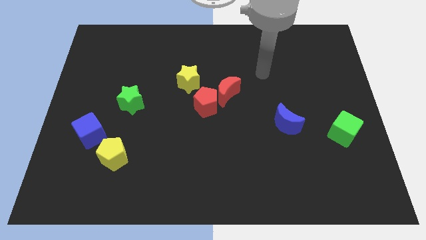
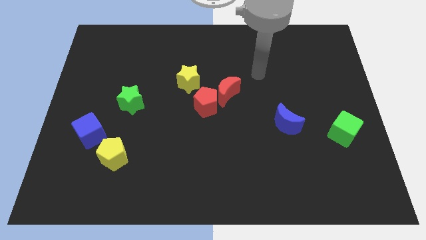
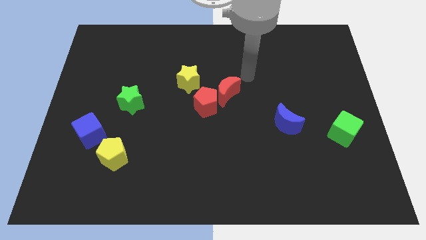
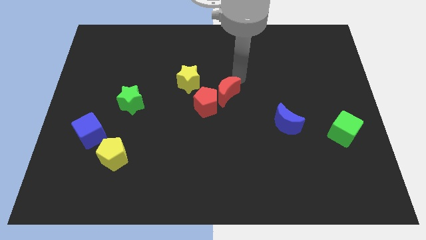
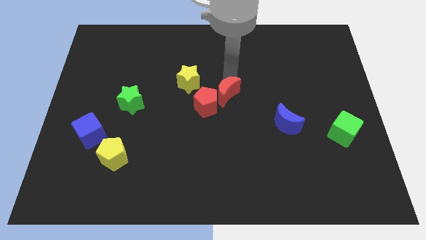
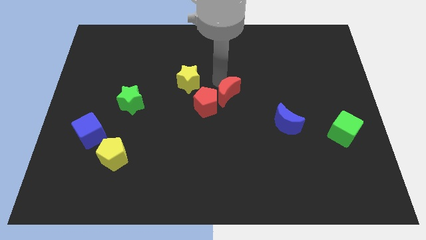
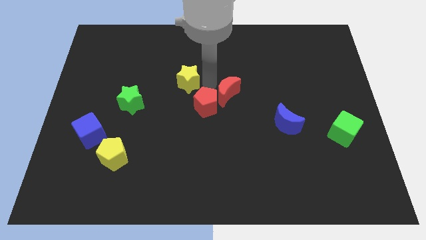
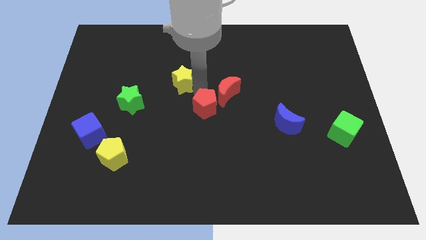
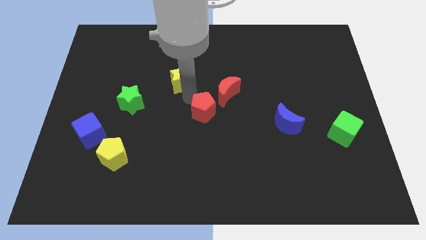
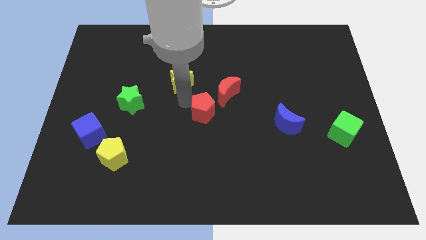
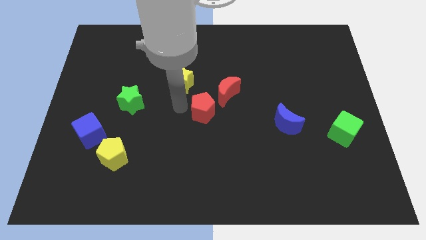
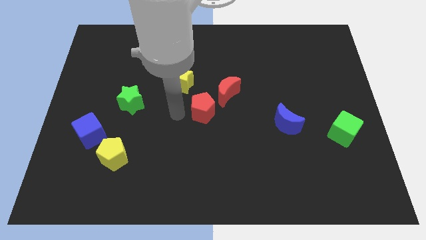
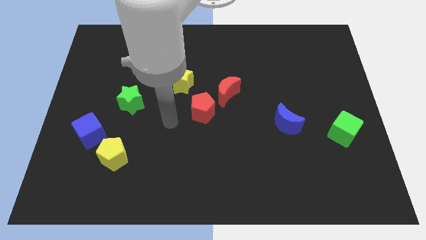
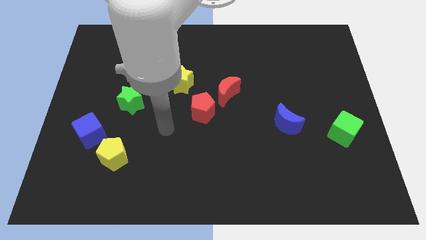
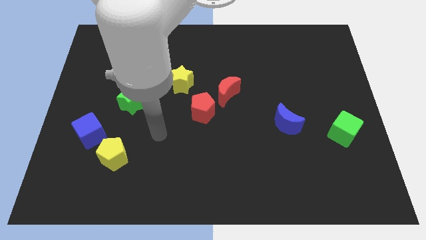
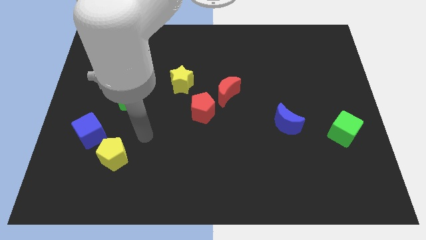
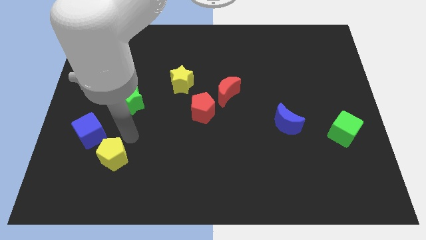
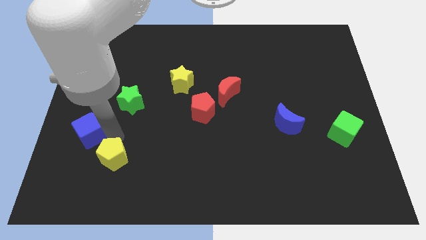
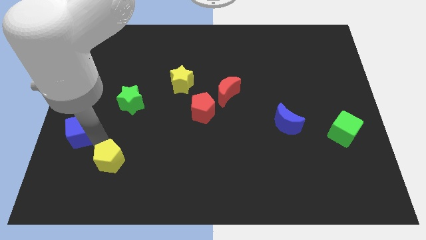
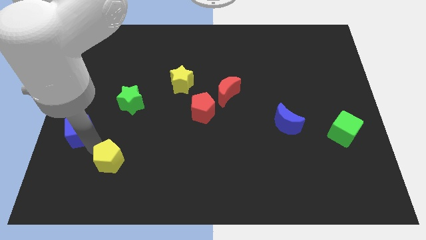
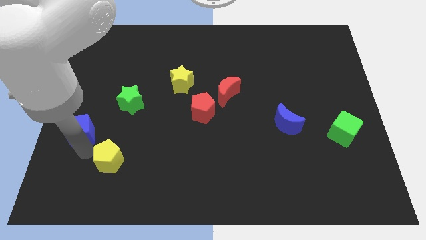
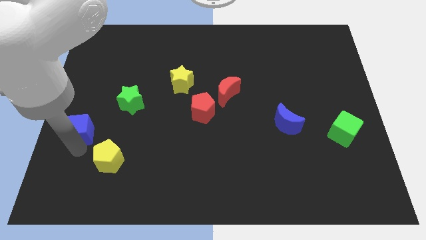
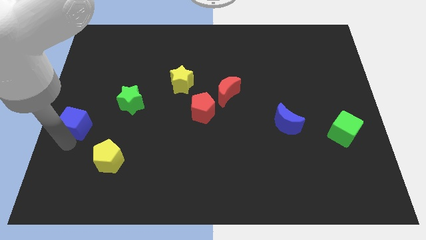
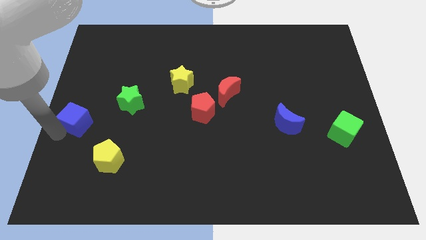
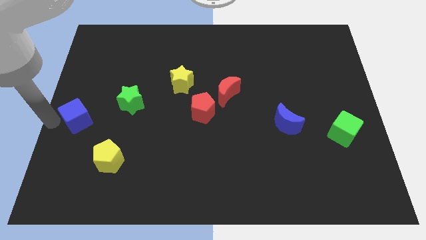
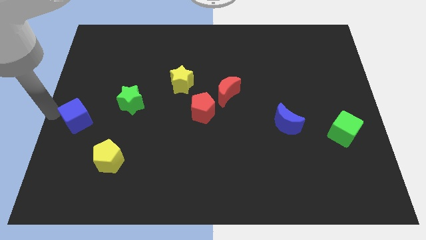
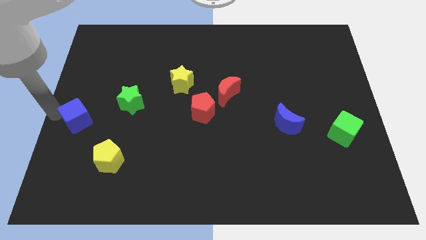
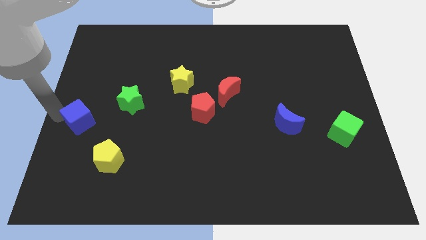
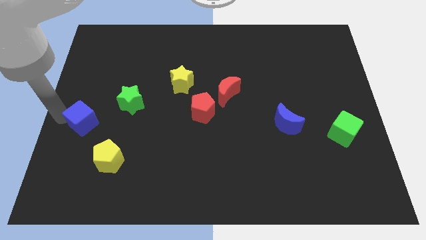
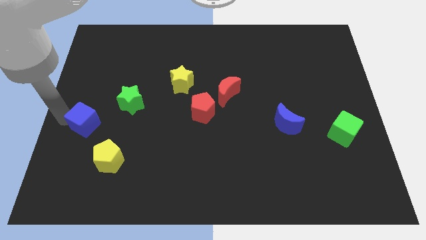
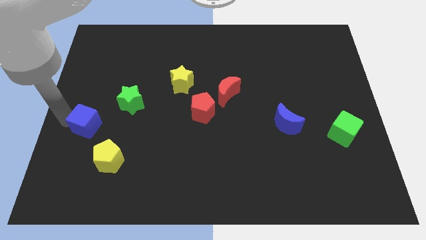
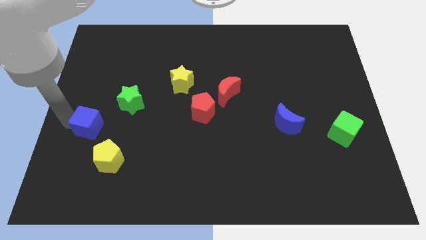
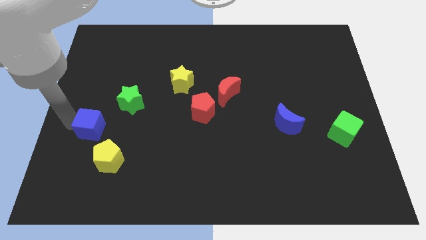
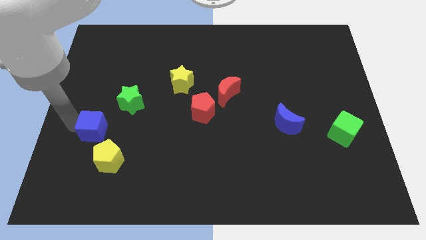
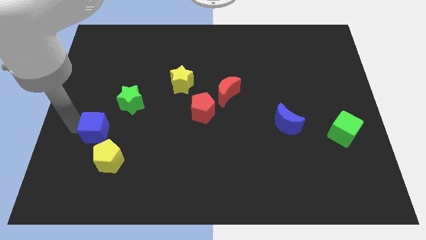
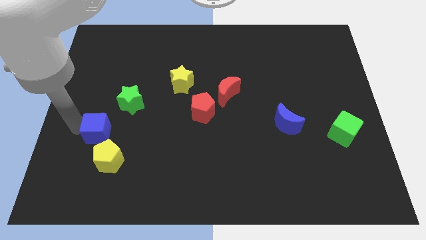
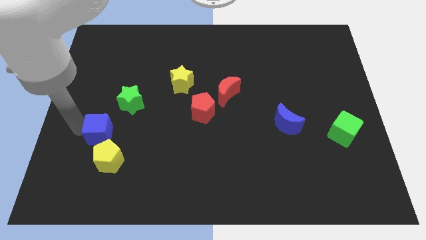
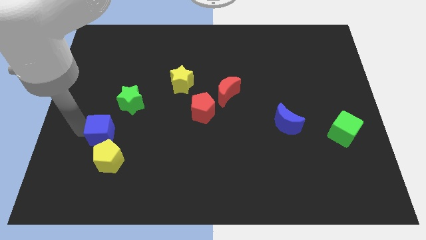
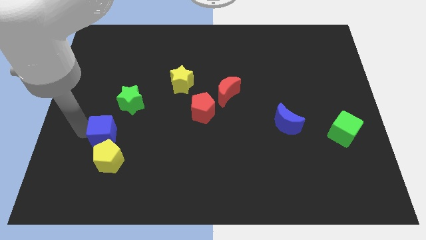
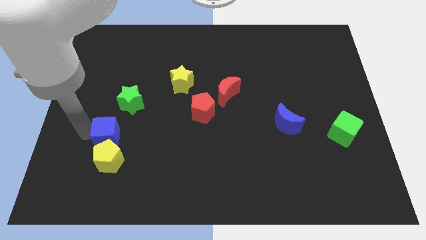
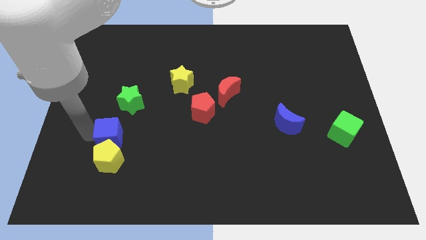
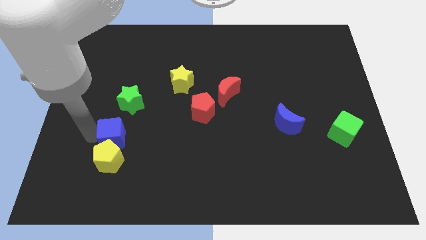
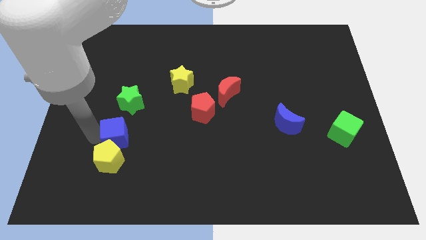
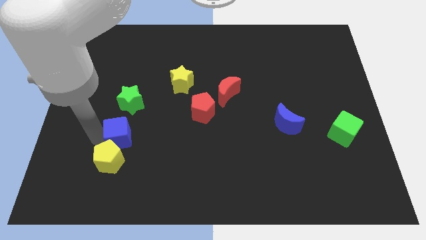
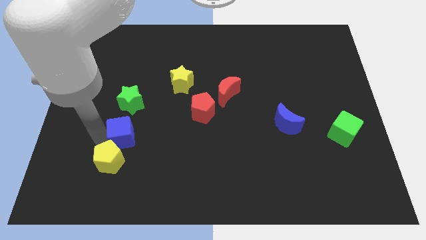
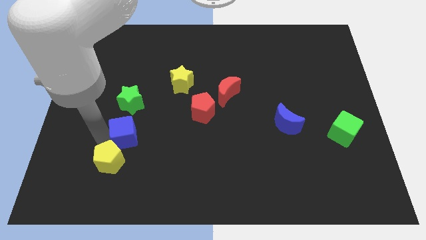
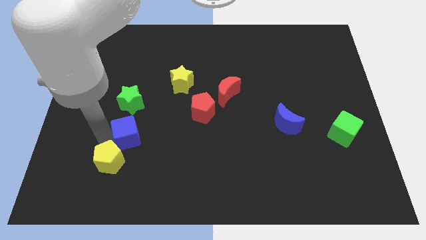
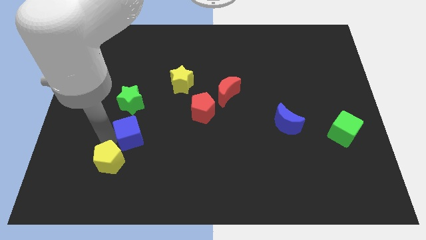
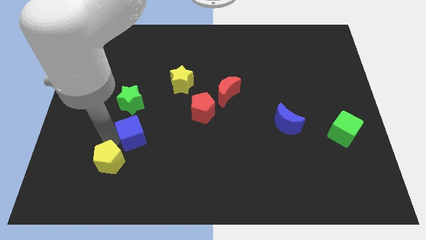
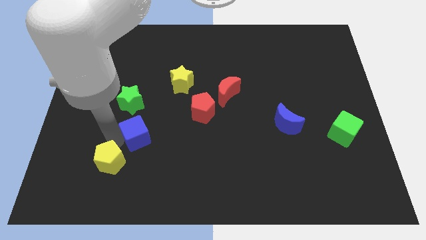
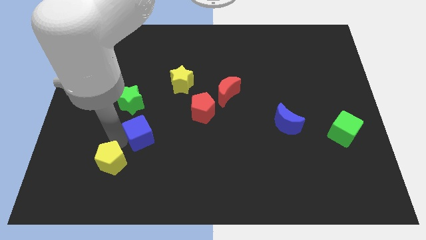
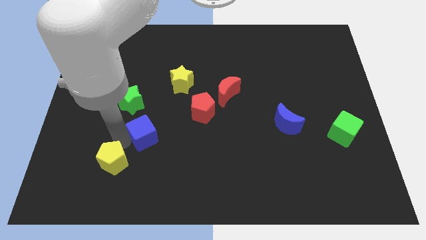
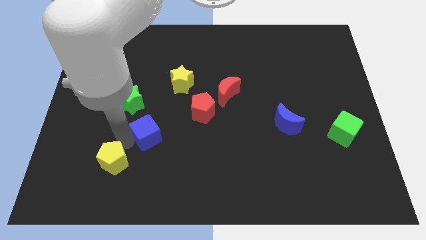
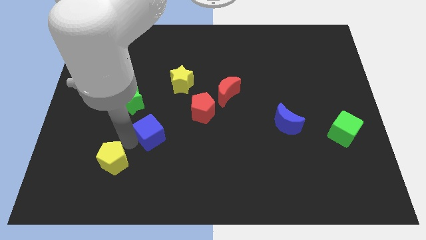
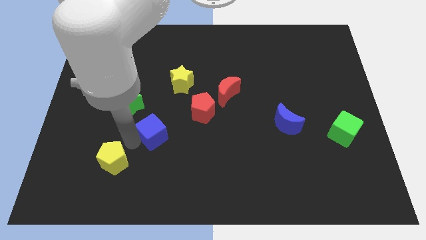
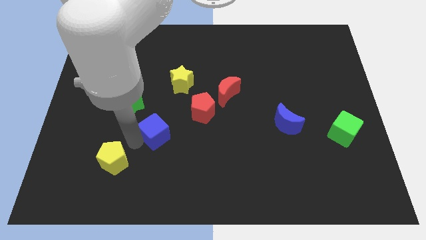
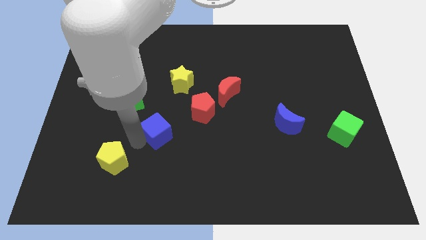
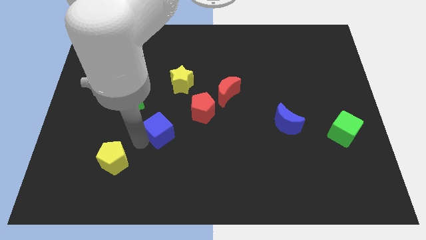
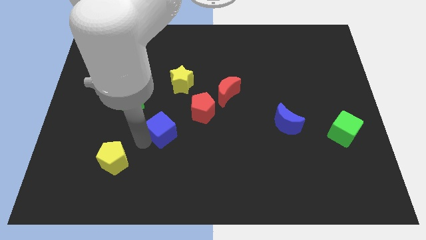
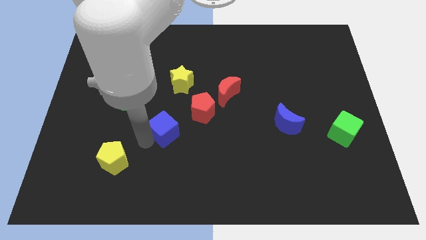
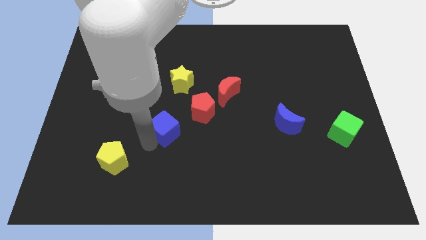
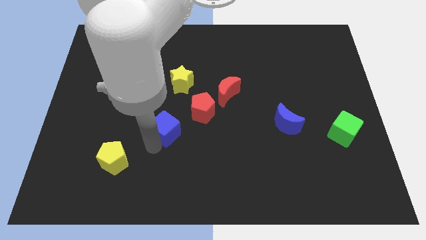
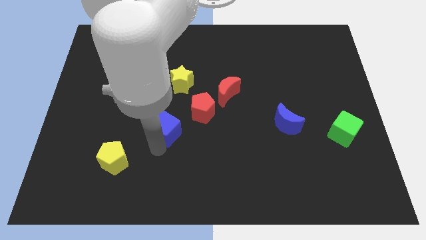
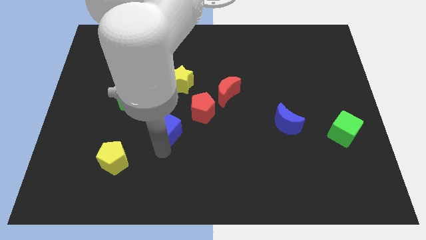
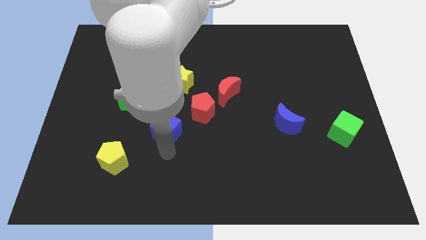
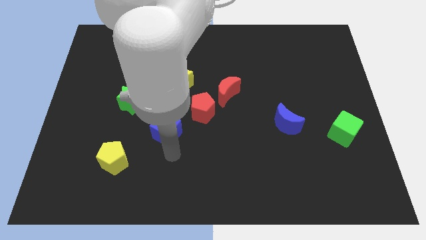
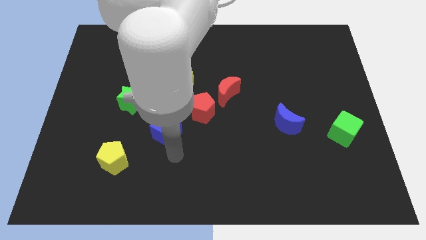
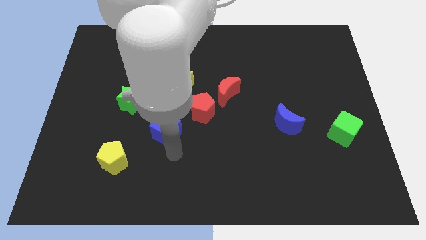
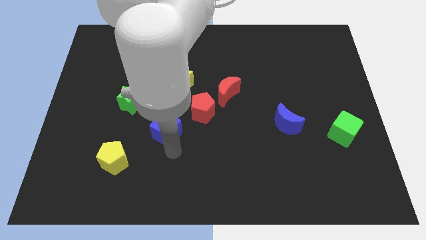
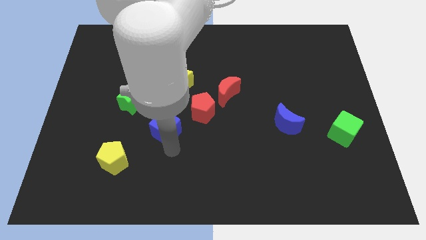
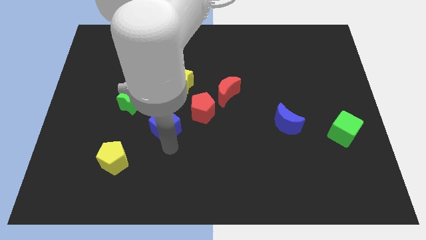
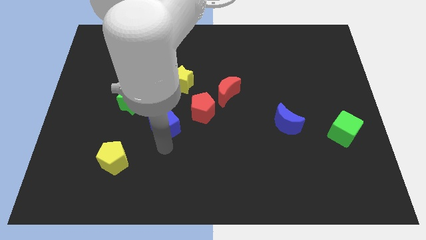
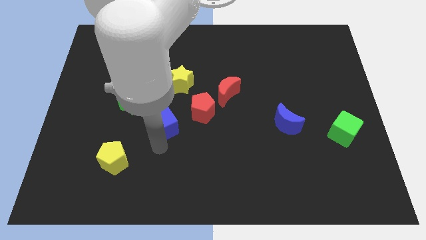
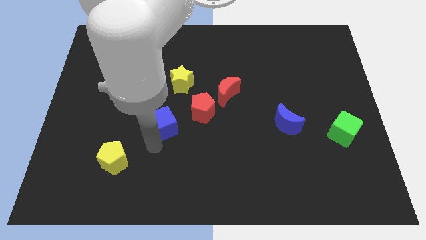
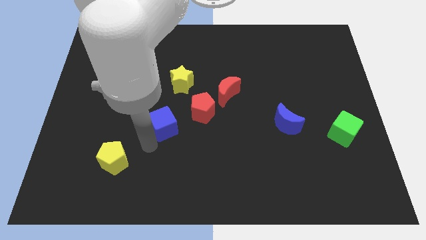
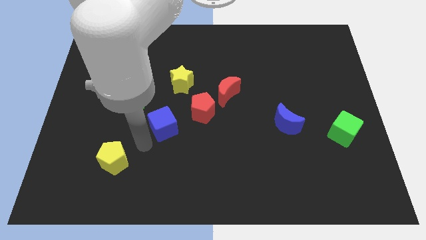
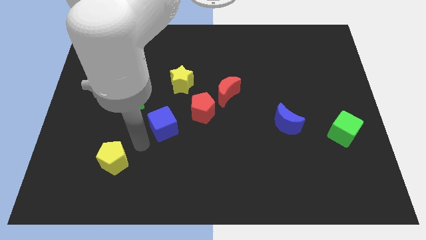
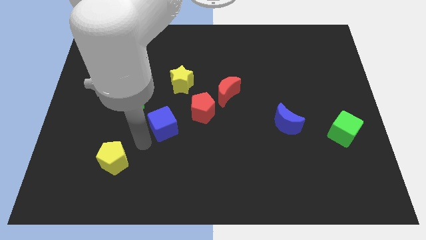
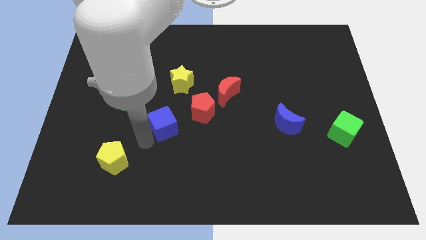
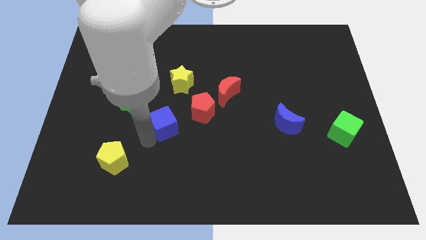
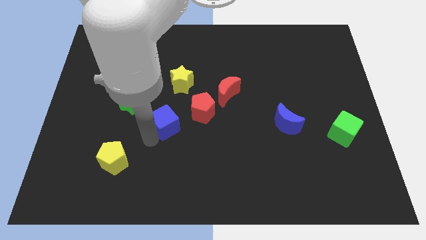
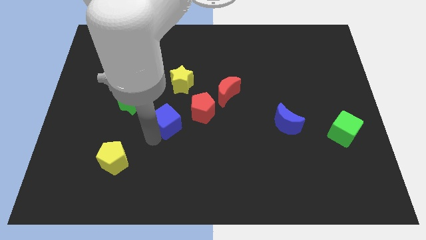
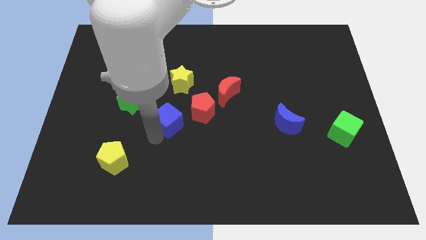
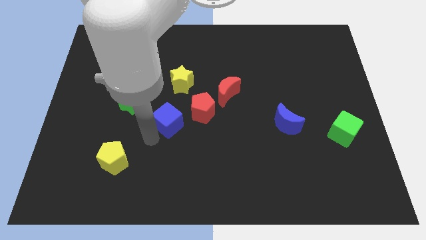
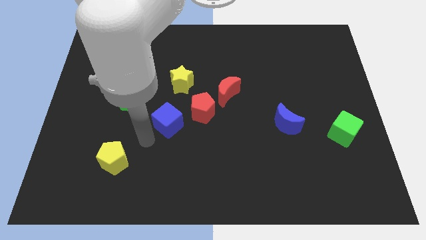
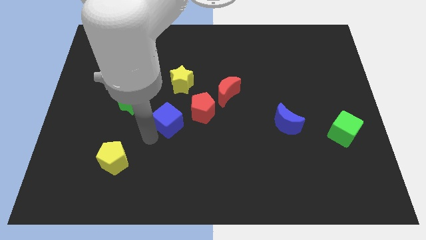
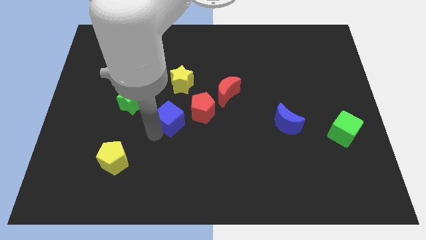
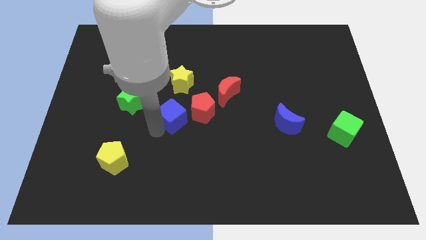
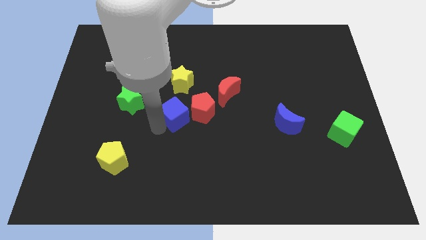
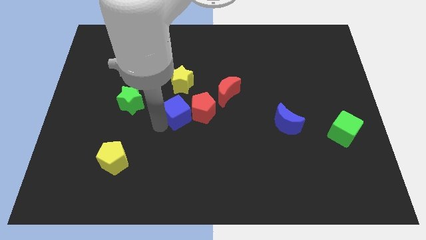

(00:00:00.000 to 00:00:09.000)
put the blue cube close to the red pentagon
